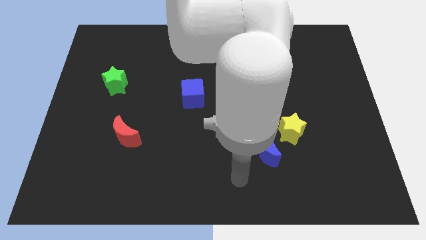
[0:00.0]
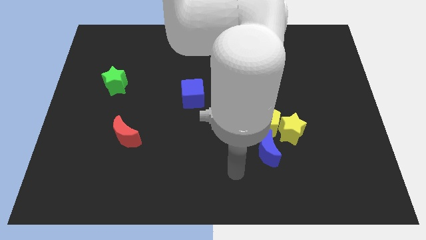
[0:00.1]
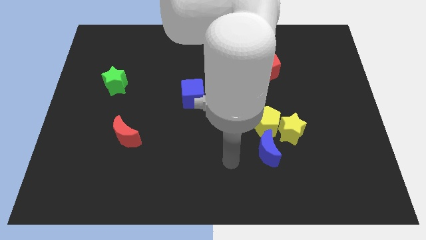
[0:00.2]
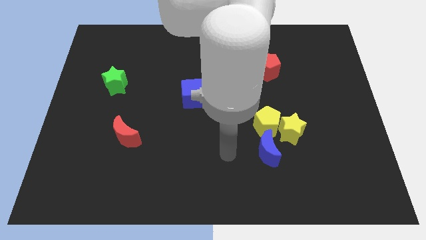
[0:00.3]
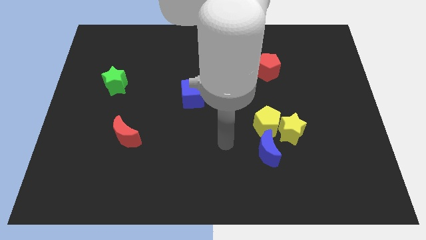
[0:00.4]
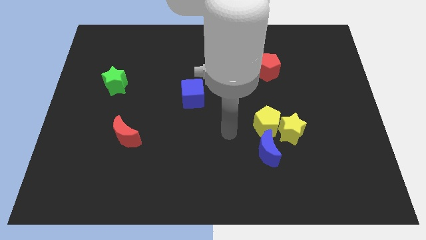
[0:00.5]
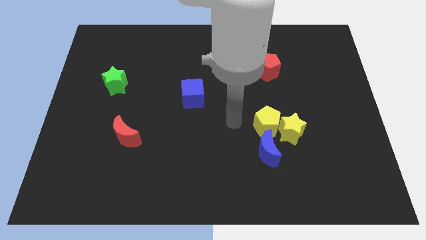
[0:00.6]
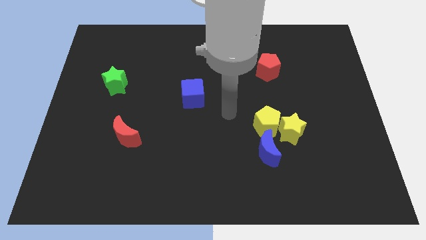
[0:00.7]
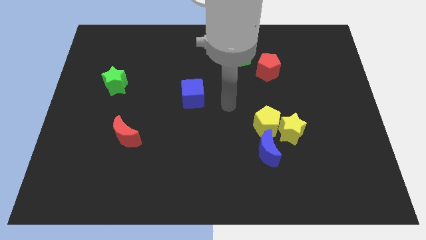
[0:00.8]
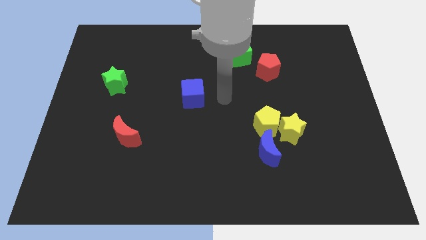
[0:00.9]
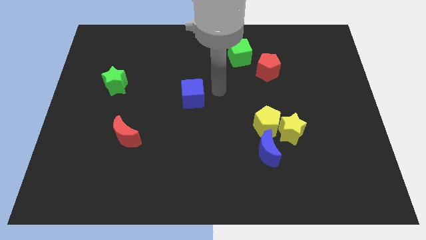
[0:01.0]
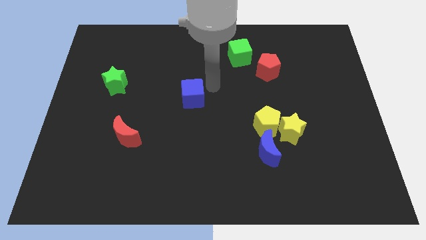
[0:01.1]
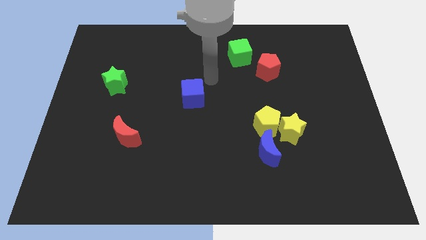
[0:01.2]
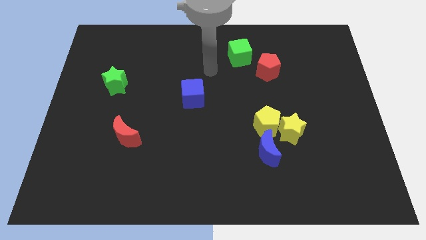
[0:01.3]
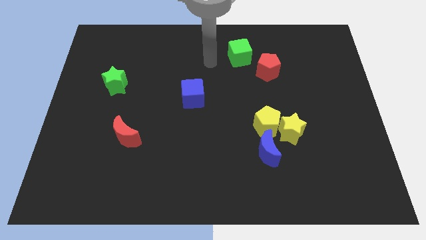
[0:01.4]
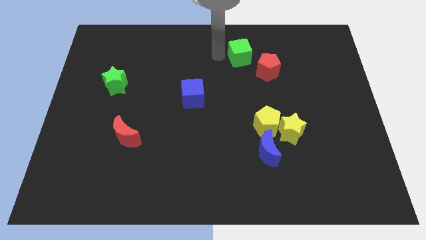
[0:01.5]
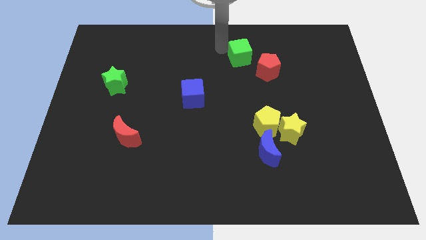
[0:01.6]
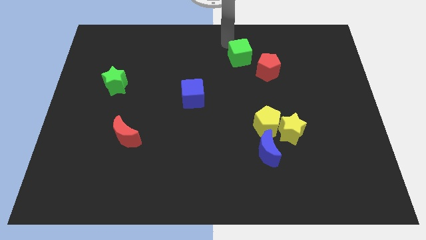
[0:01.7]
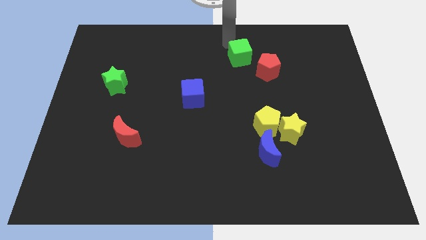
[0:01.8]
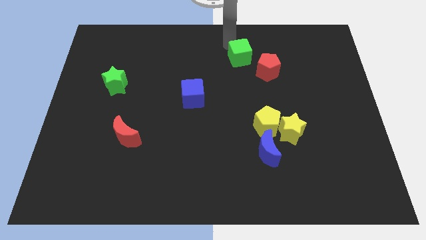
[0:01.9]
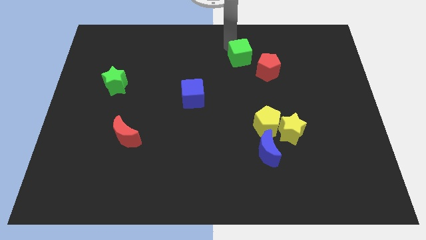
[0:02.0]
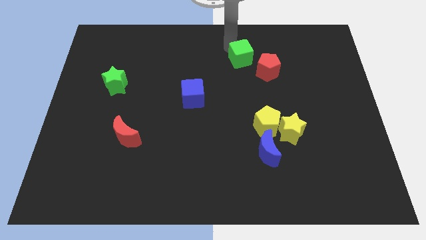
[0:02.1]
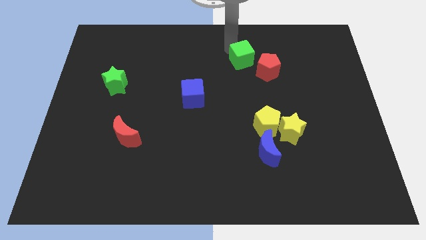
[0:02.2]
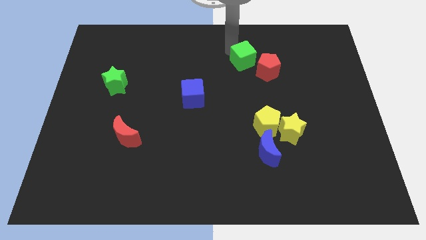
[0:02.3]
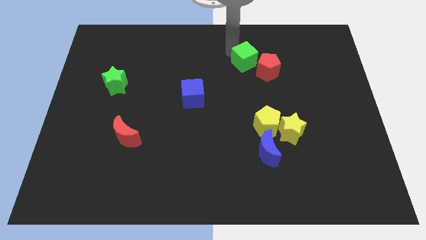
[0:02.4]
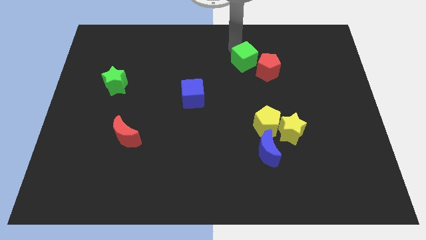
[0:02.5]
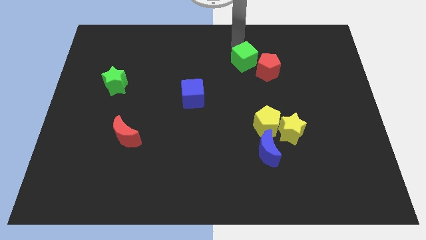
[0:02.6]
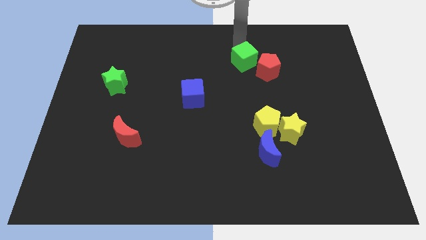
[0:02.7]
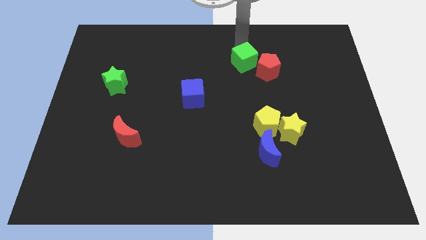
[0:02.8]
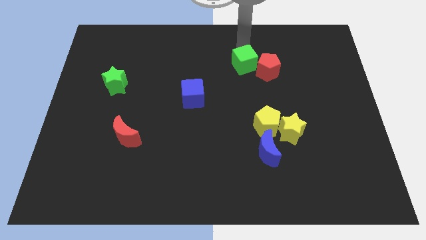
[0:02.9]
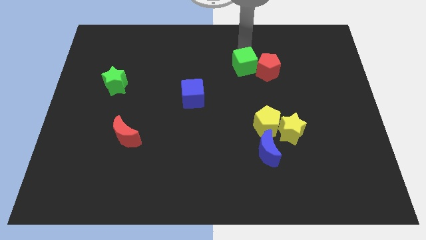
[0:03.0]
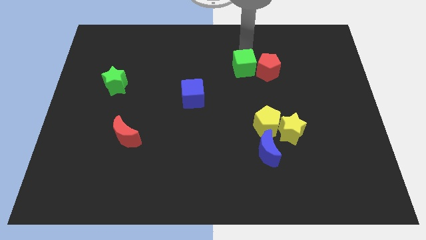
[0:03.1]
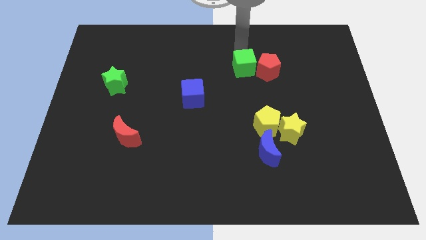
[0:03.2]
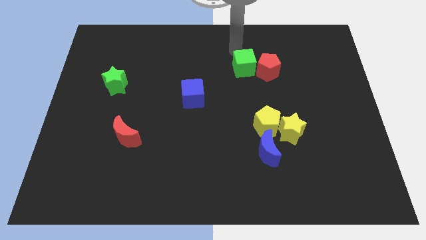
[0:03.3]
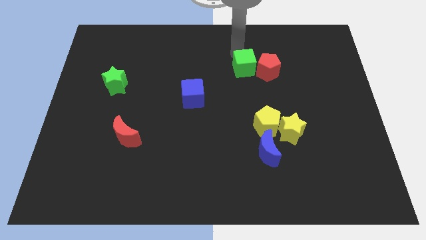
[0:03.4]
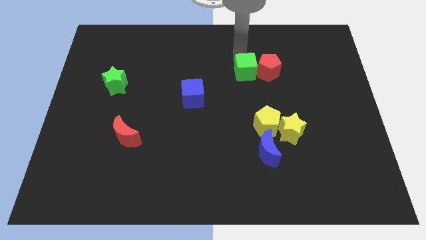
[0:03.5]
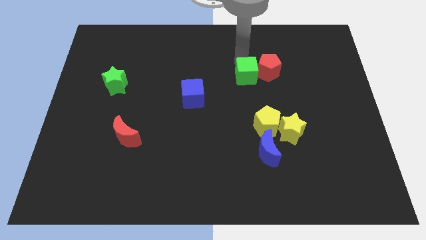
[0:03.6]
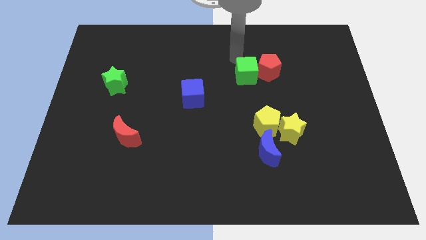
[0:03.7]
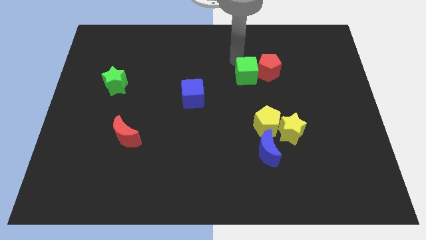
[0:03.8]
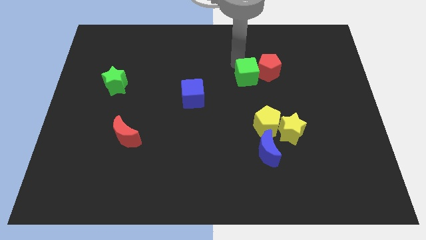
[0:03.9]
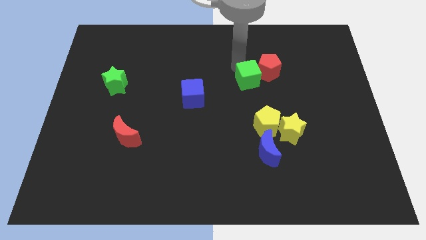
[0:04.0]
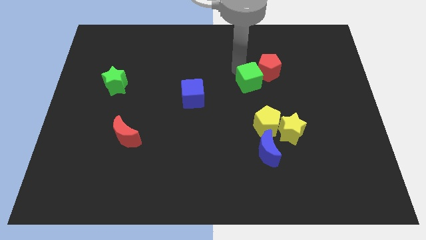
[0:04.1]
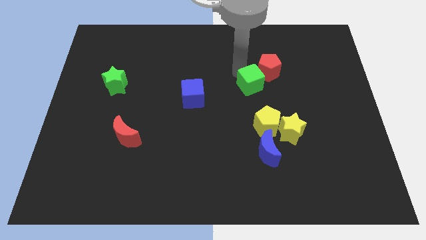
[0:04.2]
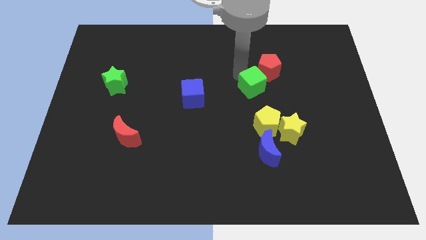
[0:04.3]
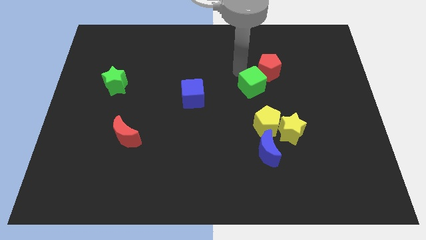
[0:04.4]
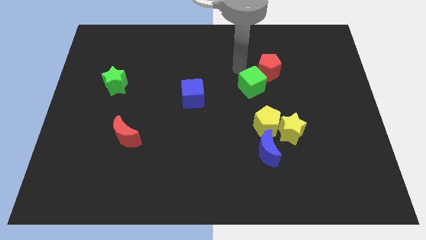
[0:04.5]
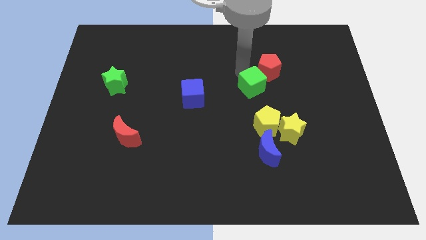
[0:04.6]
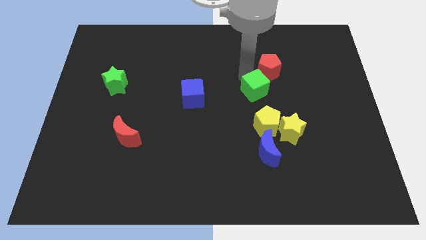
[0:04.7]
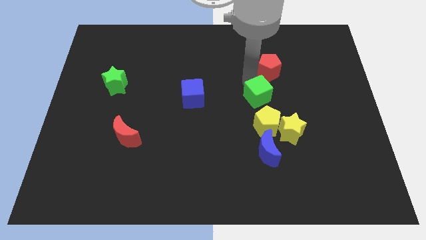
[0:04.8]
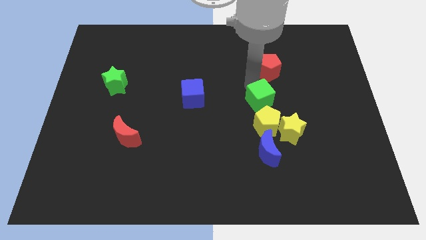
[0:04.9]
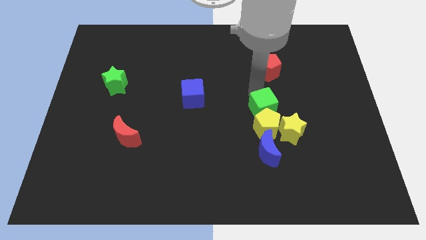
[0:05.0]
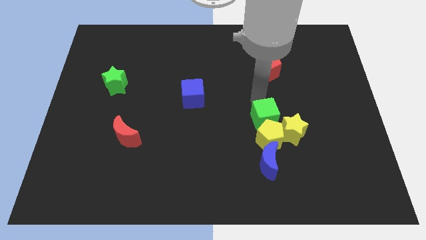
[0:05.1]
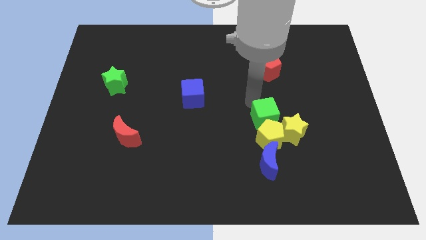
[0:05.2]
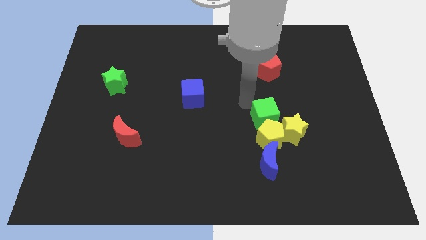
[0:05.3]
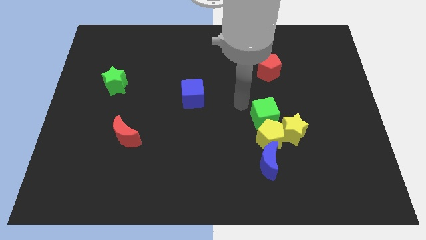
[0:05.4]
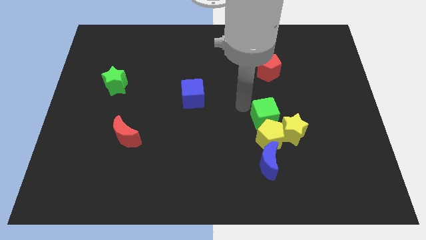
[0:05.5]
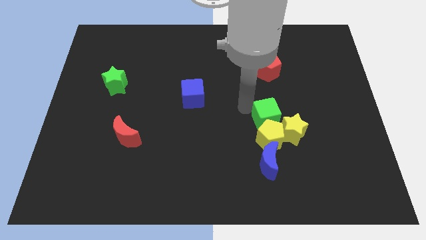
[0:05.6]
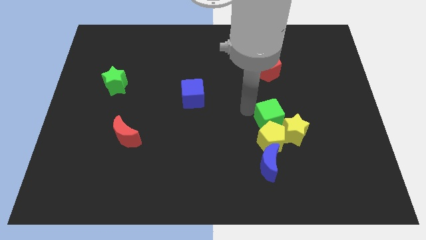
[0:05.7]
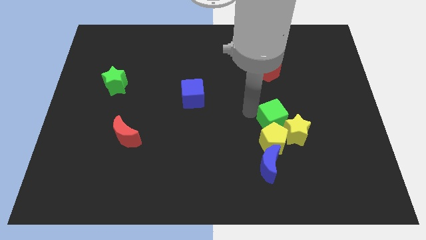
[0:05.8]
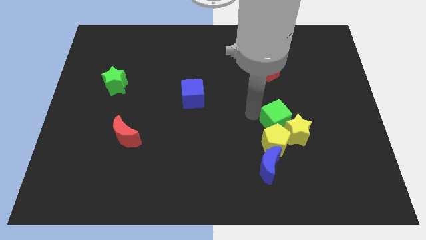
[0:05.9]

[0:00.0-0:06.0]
push the green cube next to the yellow star

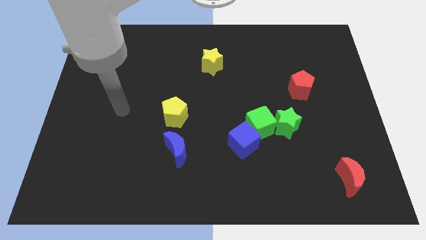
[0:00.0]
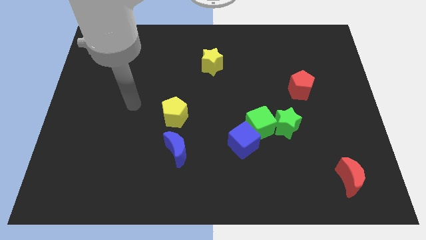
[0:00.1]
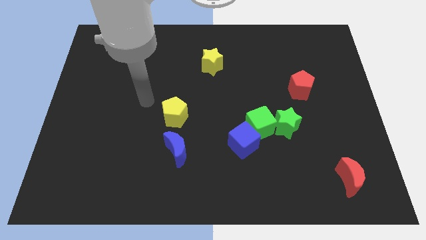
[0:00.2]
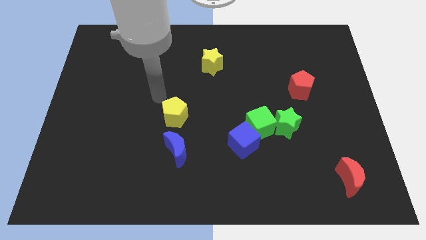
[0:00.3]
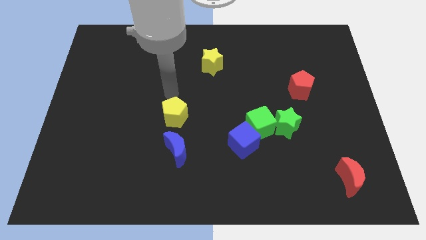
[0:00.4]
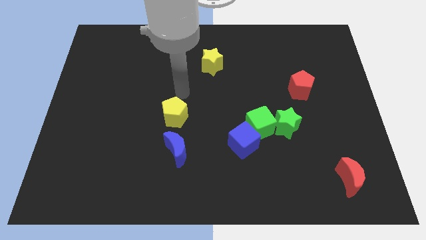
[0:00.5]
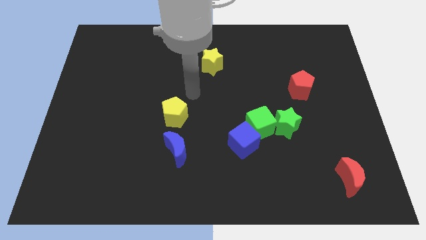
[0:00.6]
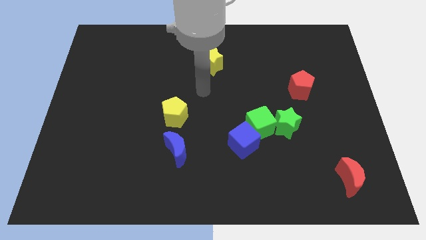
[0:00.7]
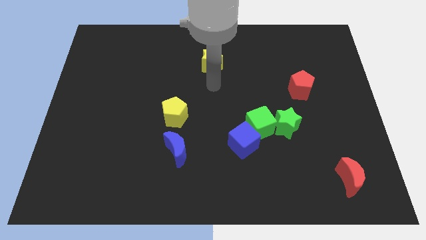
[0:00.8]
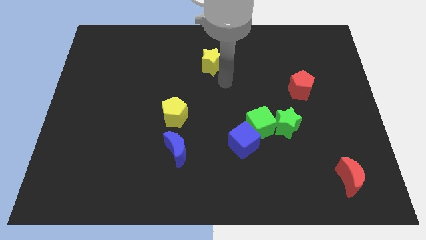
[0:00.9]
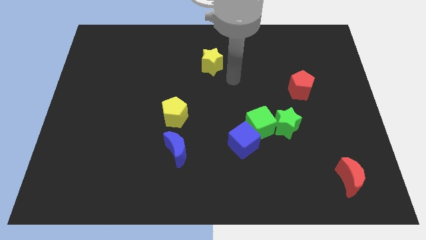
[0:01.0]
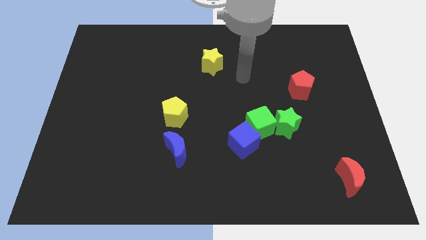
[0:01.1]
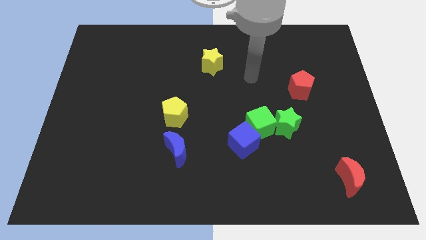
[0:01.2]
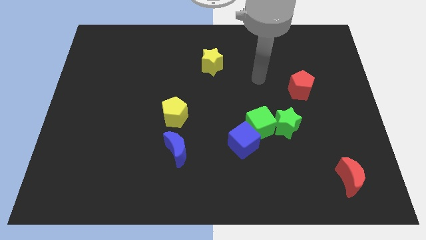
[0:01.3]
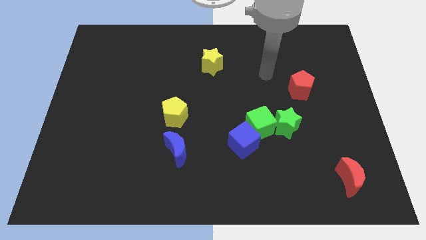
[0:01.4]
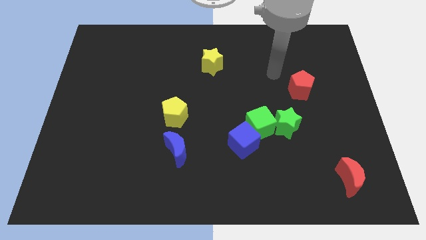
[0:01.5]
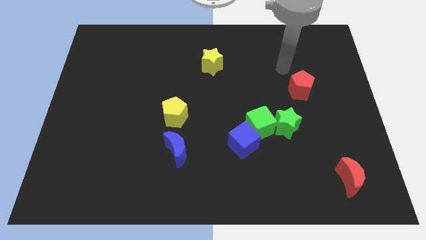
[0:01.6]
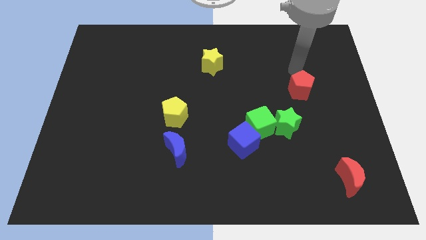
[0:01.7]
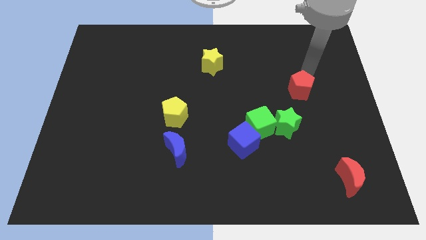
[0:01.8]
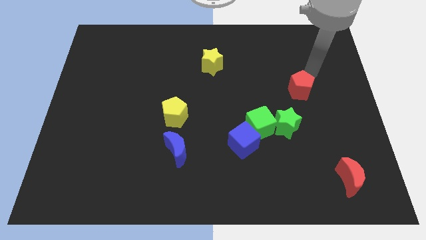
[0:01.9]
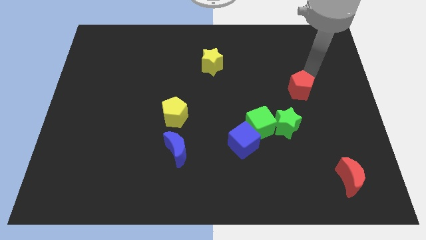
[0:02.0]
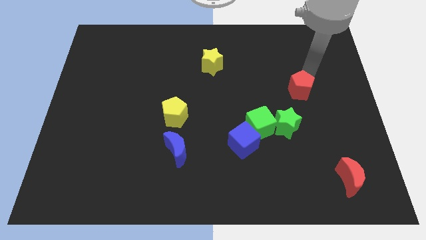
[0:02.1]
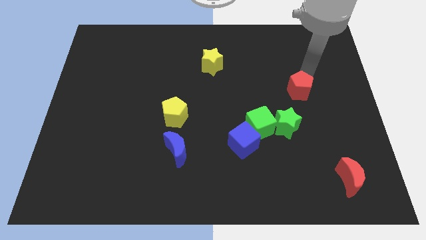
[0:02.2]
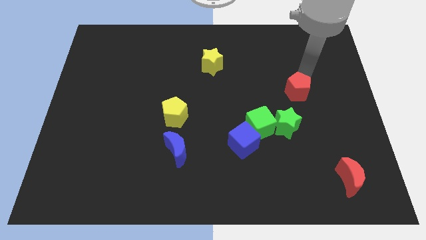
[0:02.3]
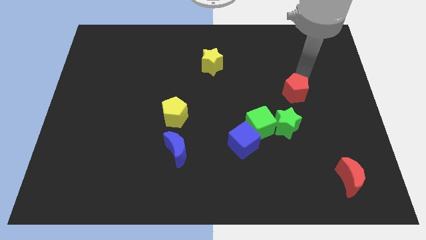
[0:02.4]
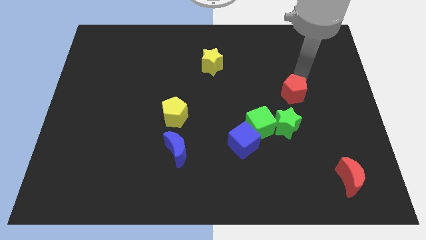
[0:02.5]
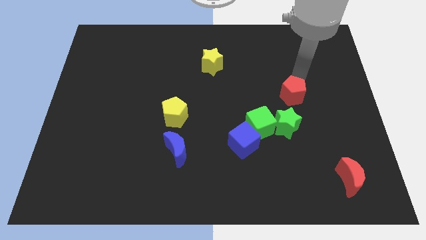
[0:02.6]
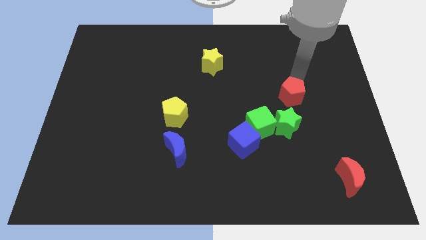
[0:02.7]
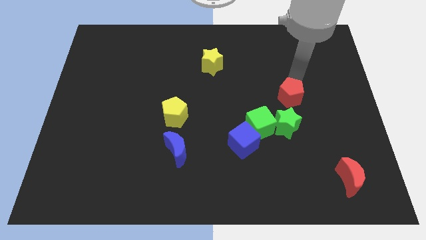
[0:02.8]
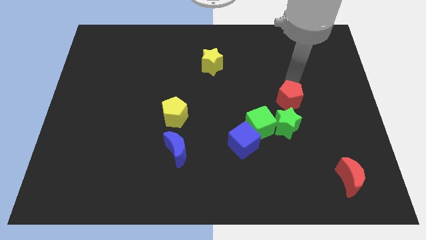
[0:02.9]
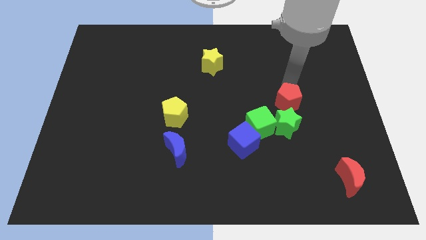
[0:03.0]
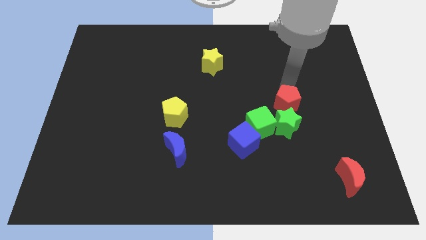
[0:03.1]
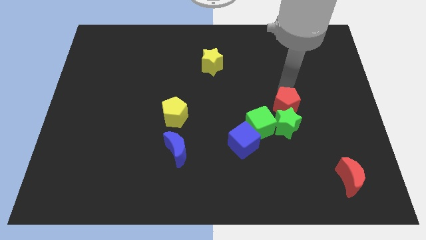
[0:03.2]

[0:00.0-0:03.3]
slide the red pentagon to the green star
